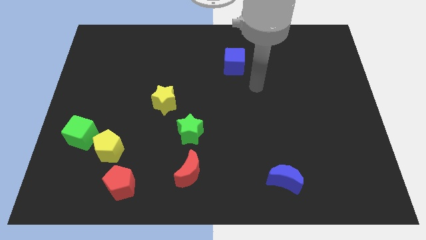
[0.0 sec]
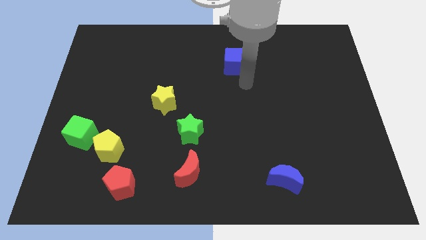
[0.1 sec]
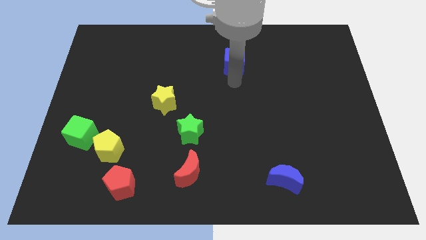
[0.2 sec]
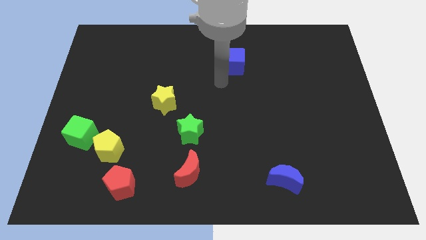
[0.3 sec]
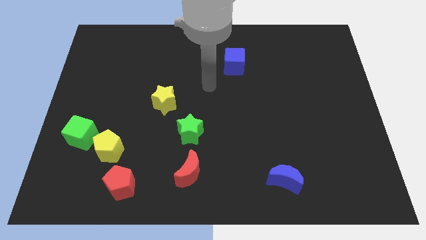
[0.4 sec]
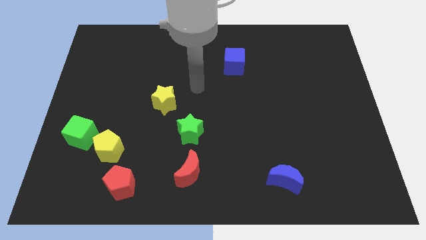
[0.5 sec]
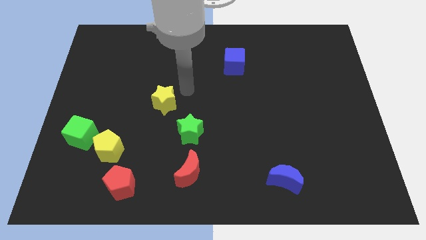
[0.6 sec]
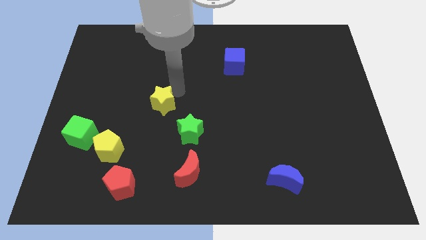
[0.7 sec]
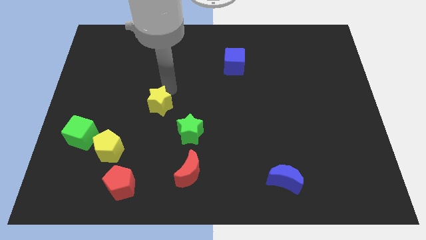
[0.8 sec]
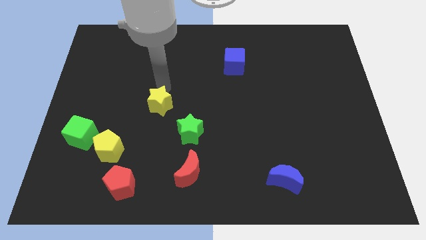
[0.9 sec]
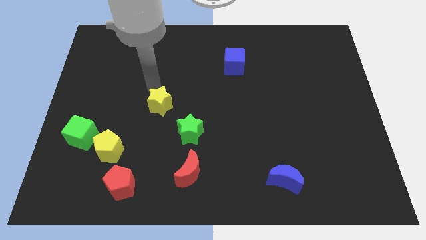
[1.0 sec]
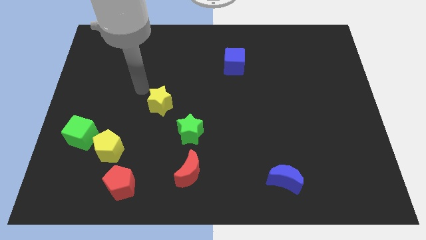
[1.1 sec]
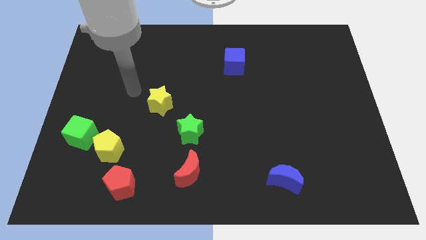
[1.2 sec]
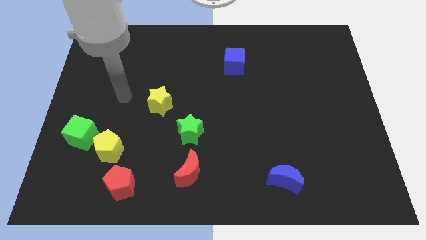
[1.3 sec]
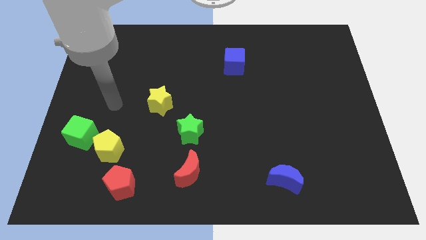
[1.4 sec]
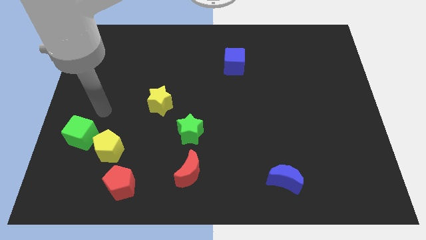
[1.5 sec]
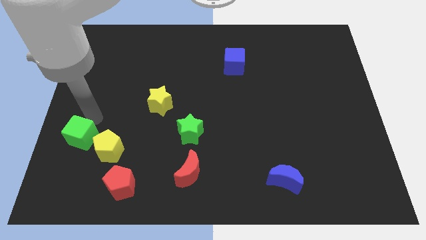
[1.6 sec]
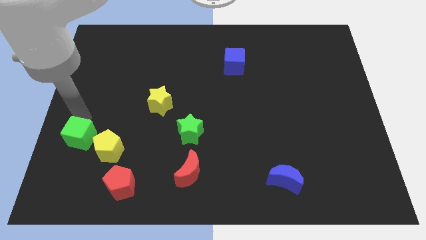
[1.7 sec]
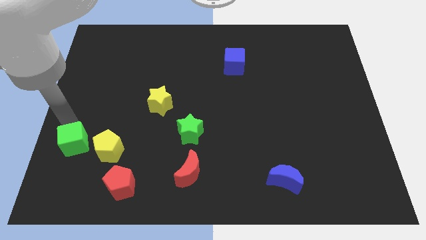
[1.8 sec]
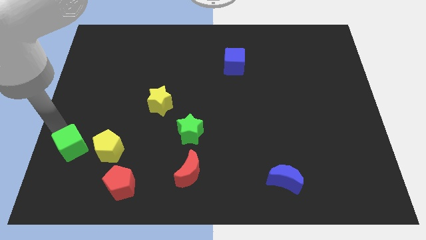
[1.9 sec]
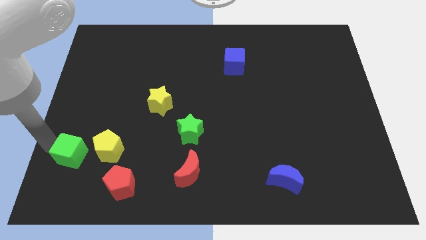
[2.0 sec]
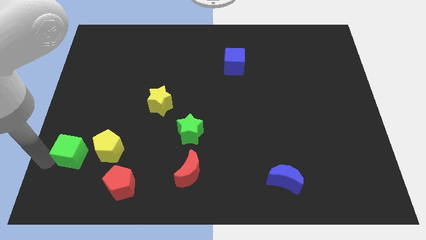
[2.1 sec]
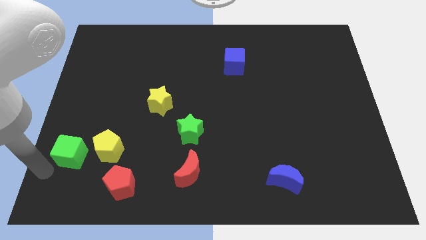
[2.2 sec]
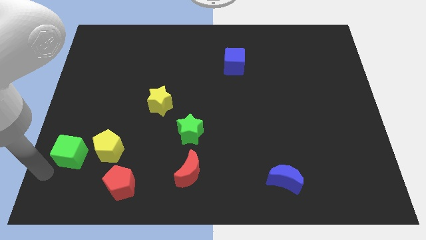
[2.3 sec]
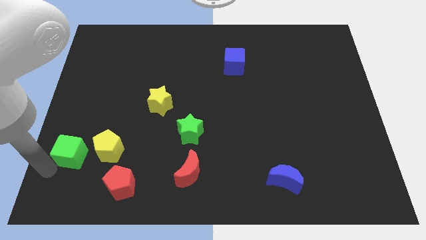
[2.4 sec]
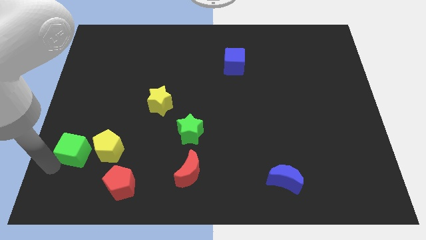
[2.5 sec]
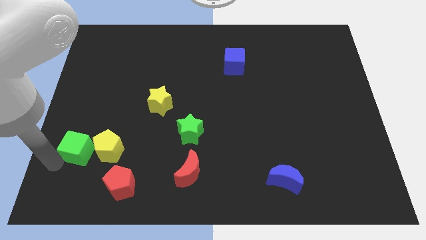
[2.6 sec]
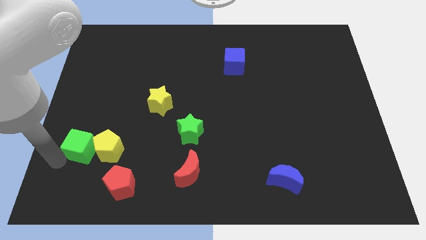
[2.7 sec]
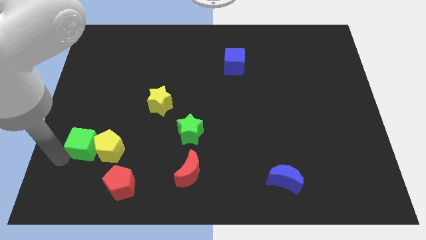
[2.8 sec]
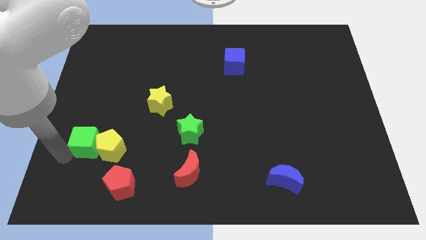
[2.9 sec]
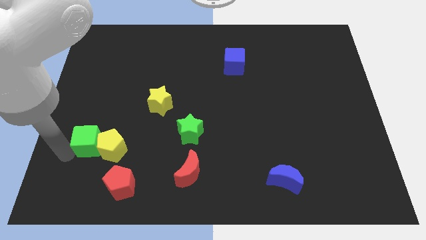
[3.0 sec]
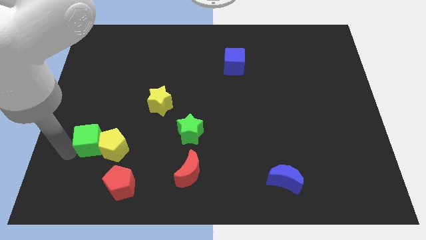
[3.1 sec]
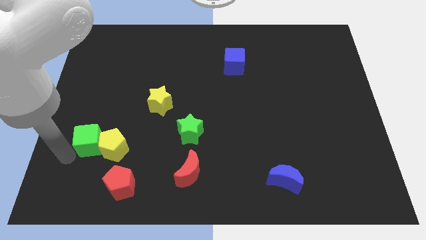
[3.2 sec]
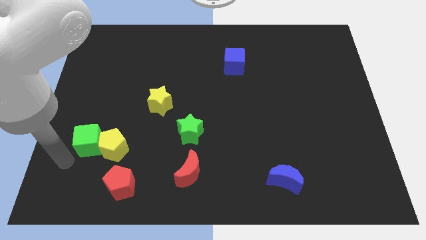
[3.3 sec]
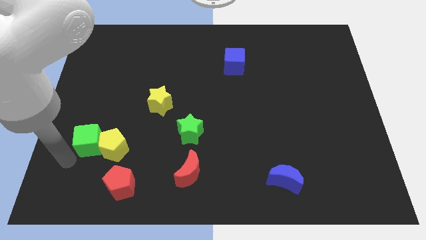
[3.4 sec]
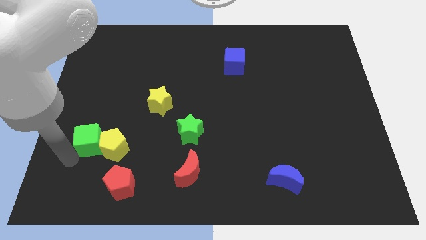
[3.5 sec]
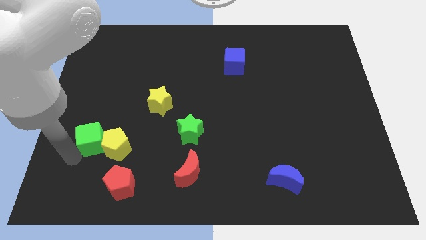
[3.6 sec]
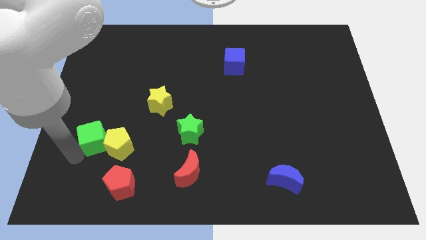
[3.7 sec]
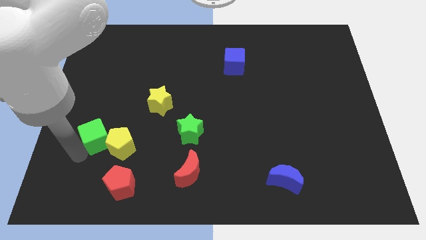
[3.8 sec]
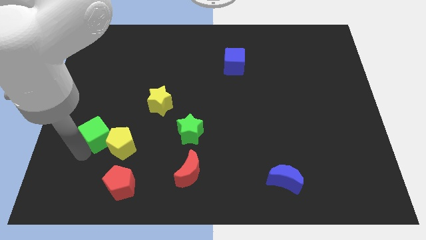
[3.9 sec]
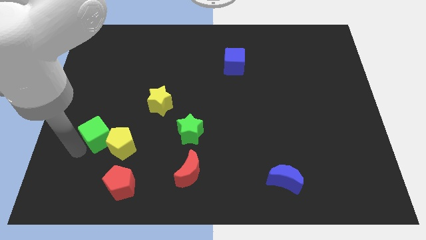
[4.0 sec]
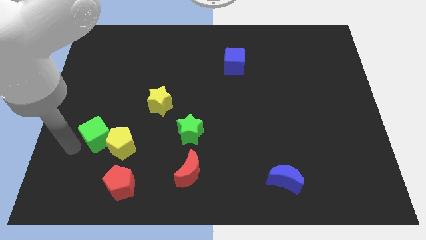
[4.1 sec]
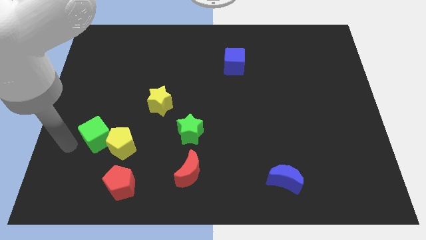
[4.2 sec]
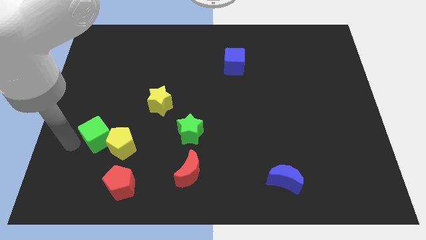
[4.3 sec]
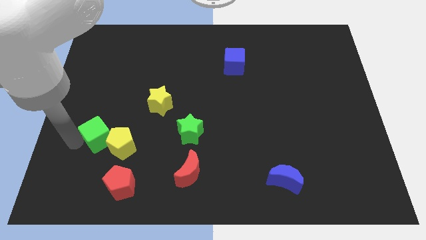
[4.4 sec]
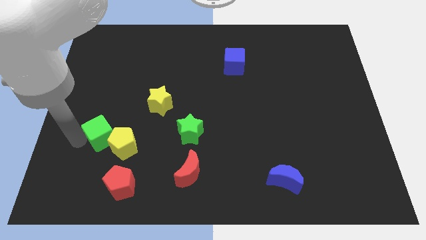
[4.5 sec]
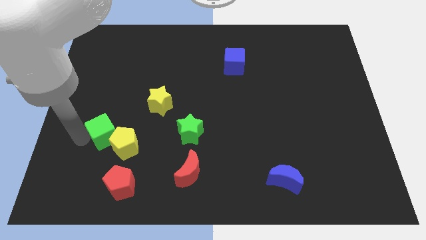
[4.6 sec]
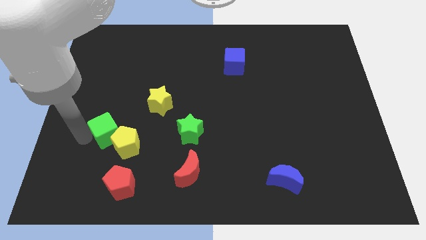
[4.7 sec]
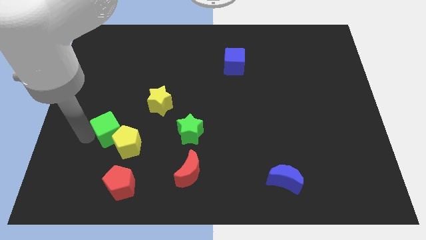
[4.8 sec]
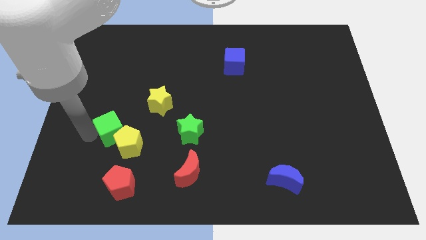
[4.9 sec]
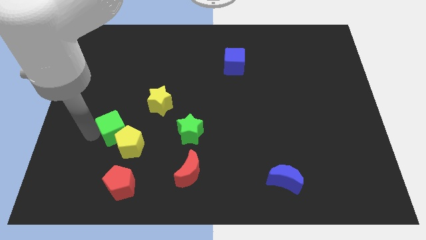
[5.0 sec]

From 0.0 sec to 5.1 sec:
slightly move the green cube right

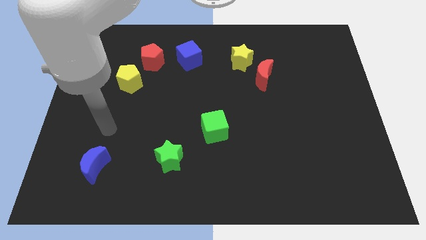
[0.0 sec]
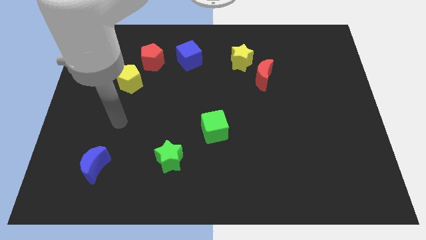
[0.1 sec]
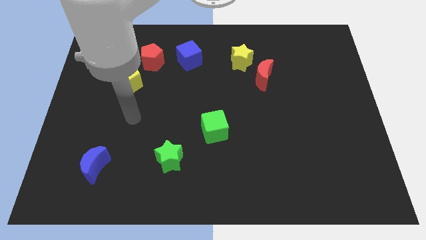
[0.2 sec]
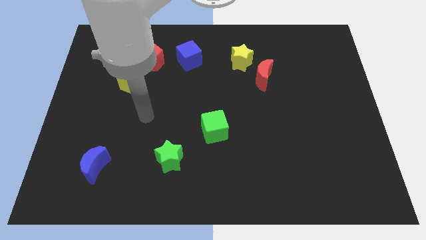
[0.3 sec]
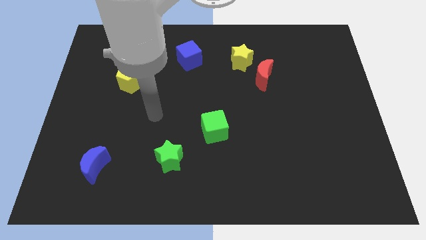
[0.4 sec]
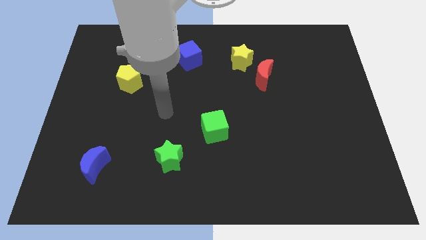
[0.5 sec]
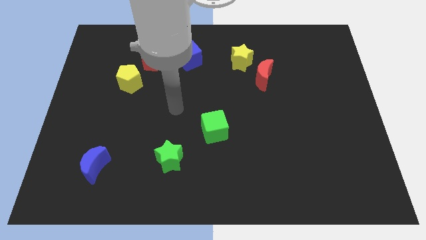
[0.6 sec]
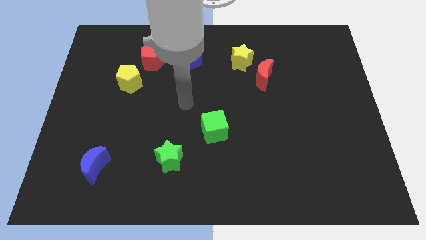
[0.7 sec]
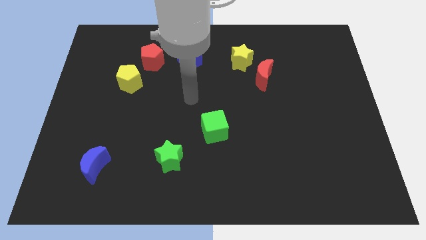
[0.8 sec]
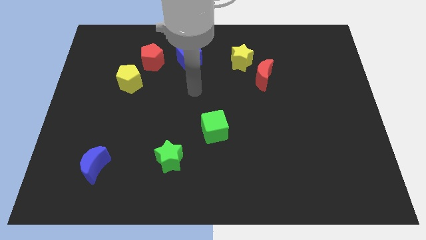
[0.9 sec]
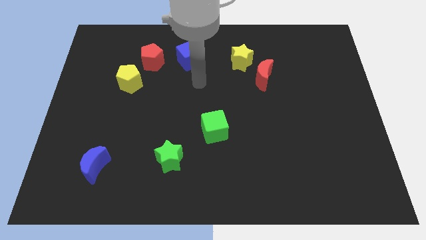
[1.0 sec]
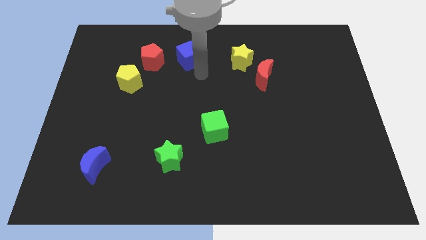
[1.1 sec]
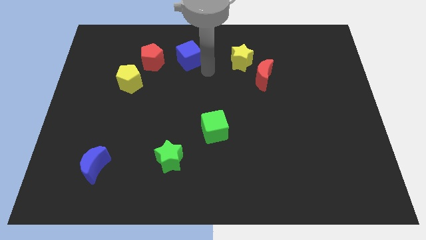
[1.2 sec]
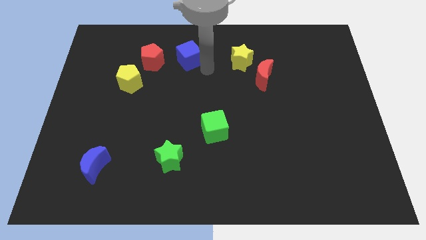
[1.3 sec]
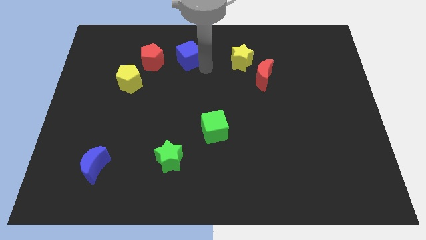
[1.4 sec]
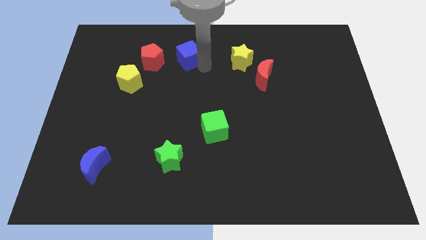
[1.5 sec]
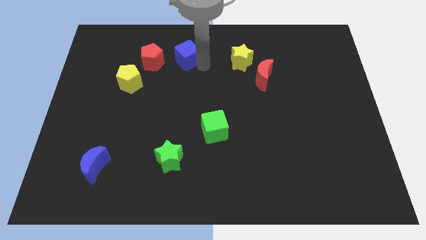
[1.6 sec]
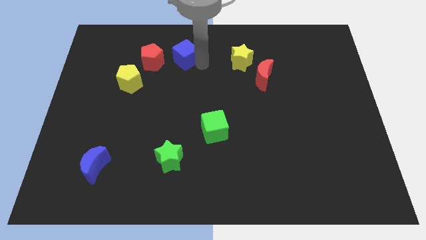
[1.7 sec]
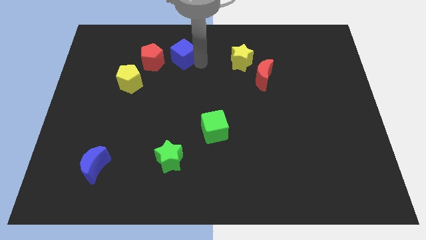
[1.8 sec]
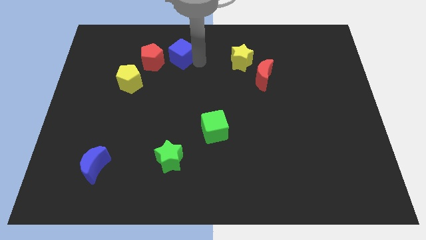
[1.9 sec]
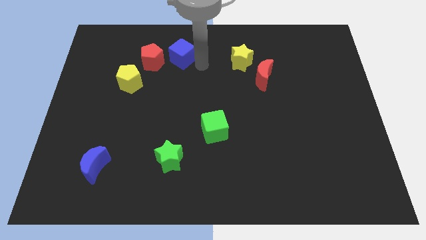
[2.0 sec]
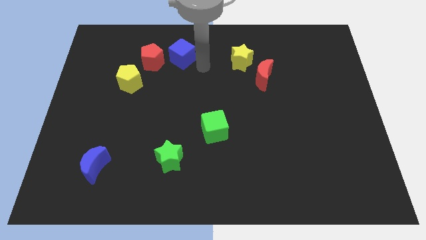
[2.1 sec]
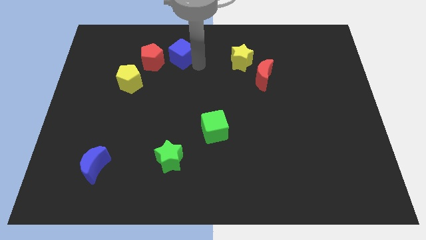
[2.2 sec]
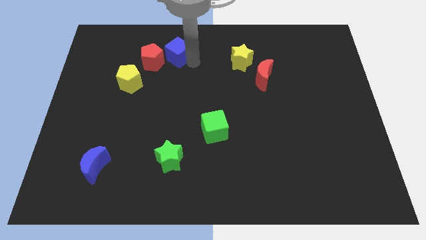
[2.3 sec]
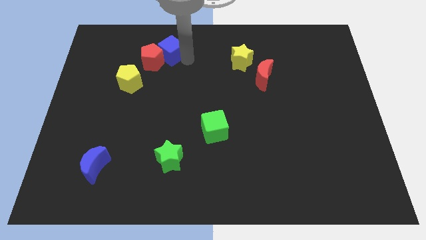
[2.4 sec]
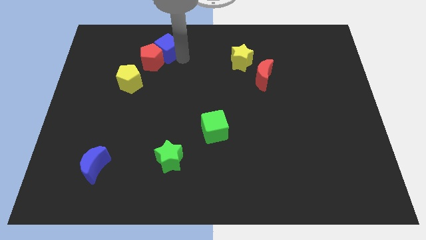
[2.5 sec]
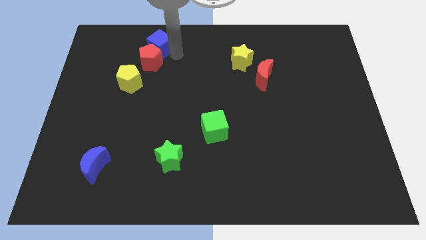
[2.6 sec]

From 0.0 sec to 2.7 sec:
push the blue cube slightly to the left

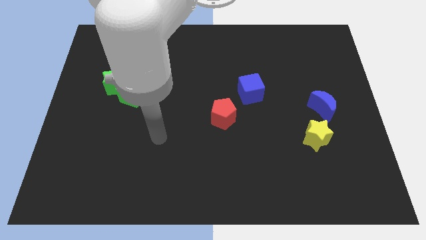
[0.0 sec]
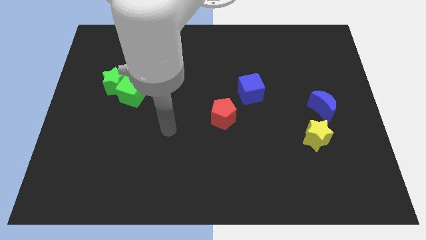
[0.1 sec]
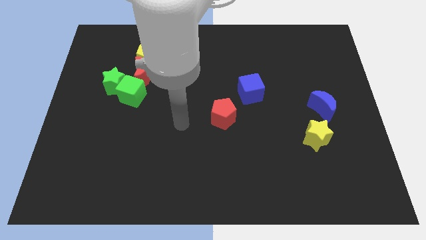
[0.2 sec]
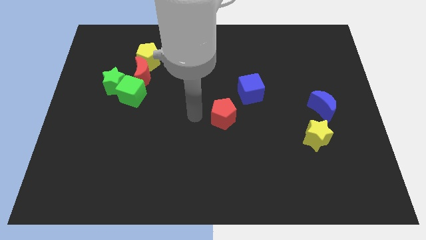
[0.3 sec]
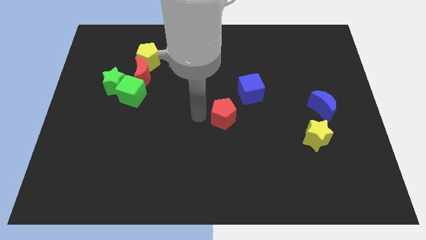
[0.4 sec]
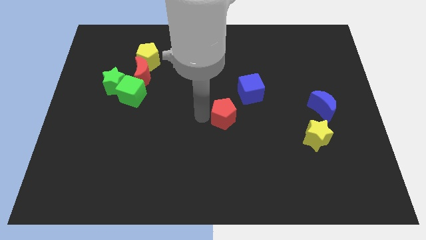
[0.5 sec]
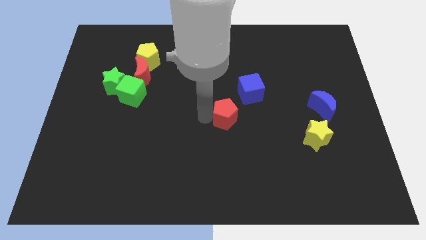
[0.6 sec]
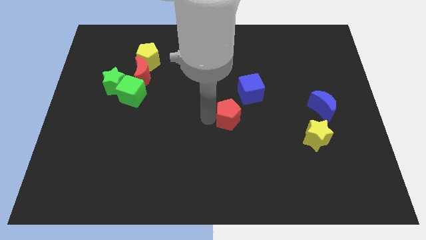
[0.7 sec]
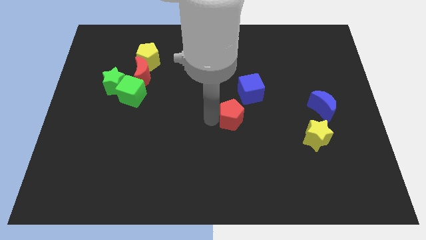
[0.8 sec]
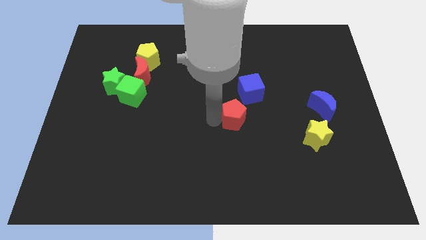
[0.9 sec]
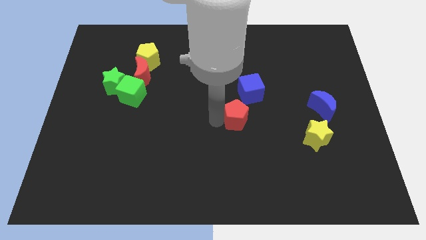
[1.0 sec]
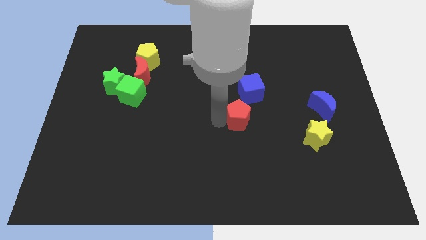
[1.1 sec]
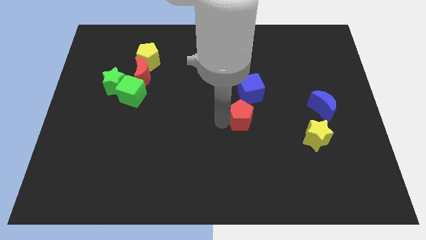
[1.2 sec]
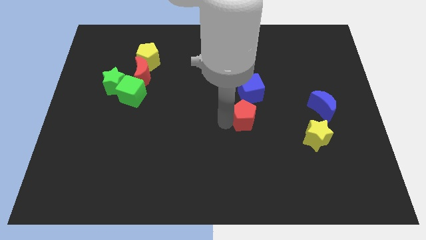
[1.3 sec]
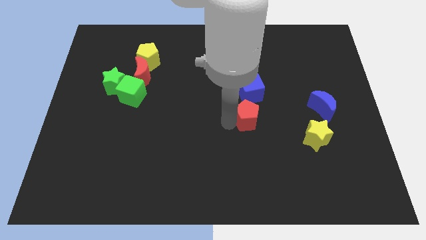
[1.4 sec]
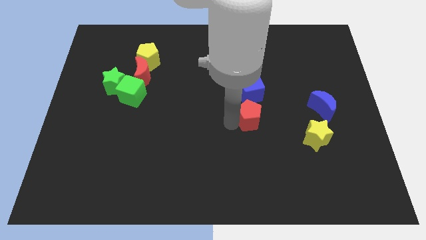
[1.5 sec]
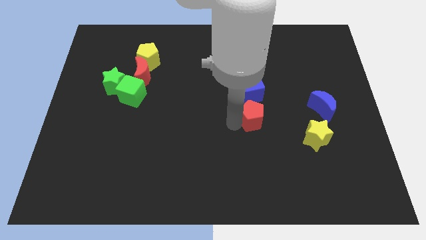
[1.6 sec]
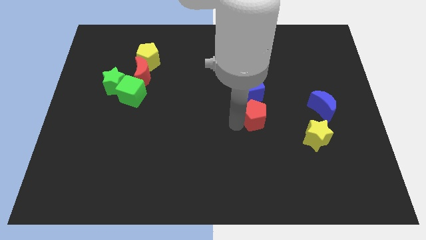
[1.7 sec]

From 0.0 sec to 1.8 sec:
slightly push the red pentagon to the right
